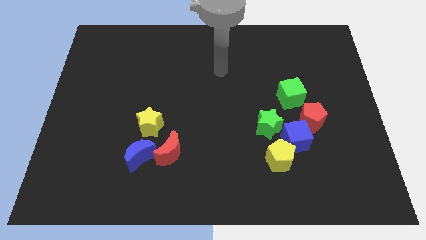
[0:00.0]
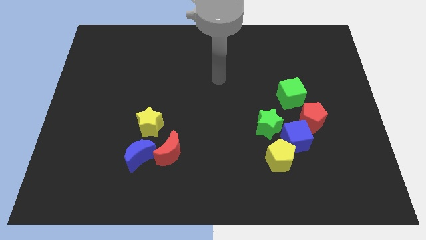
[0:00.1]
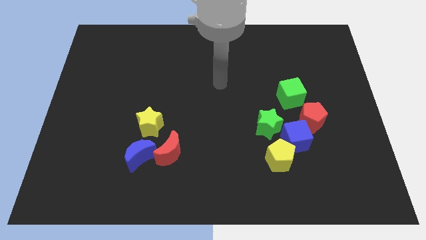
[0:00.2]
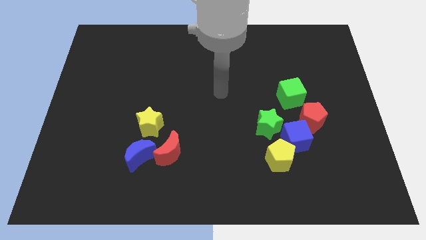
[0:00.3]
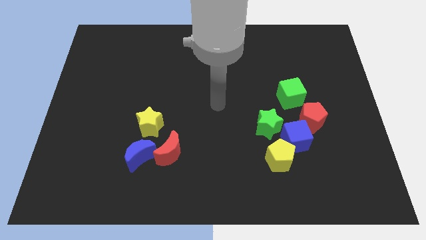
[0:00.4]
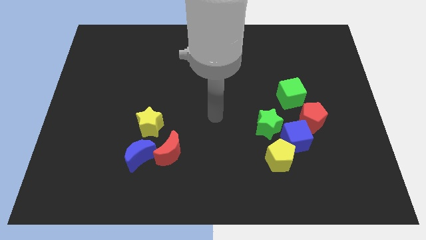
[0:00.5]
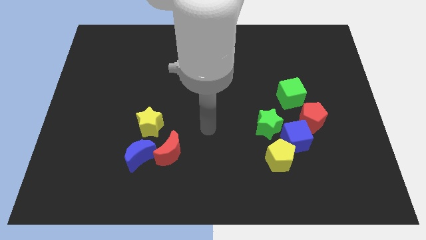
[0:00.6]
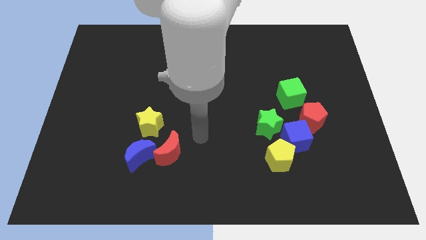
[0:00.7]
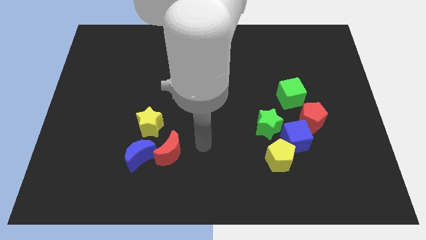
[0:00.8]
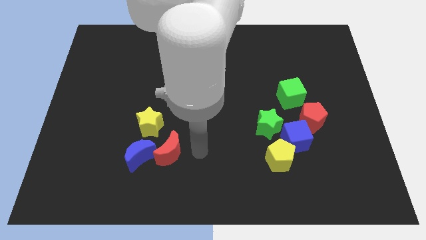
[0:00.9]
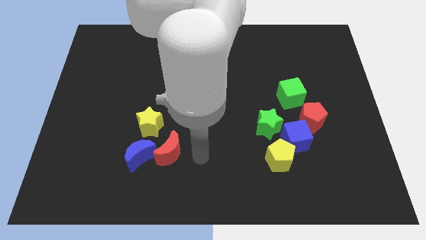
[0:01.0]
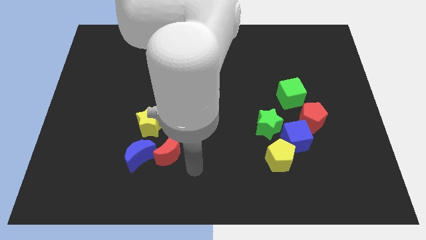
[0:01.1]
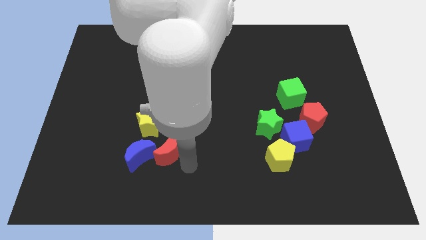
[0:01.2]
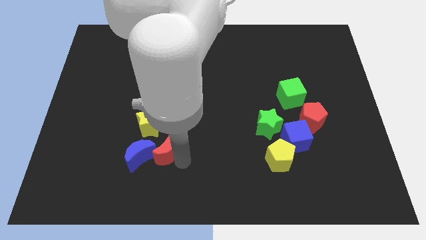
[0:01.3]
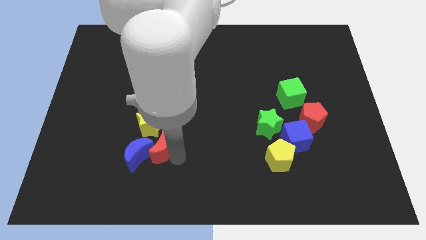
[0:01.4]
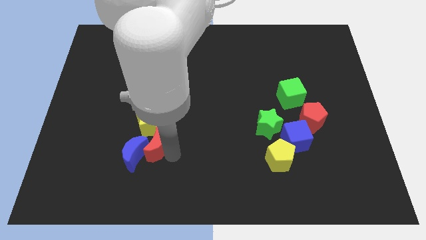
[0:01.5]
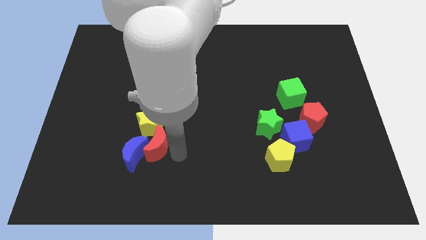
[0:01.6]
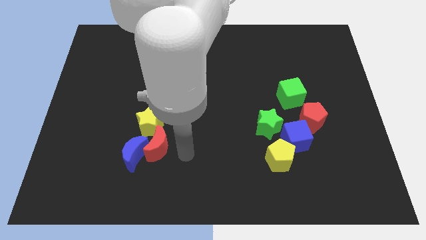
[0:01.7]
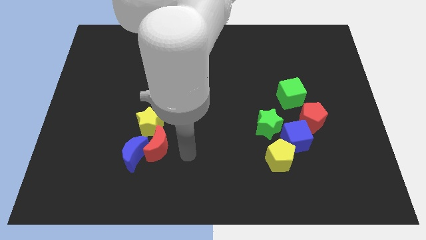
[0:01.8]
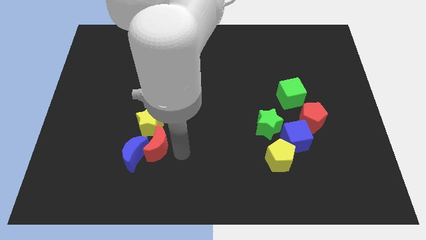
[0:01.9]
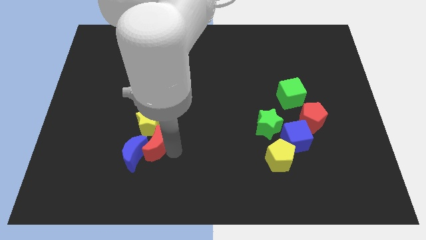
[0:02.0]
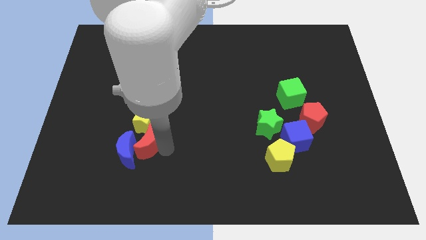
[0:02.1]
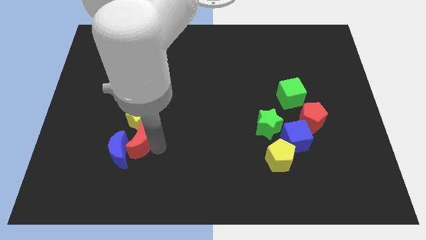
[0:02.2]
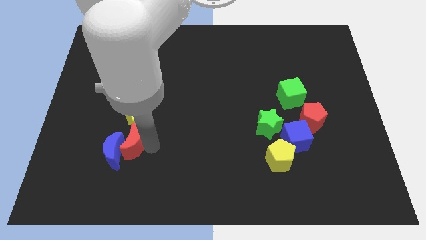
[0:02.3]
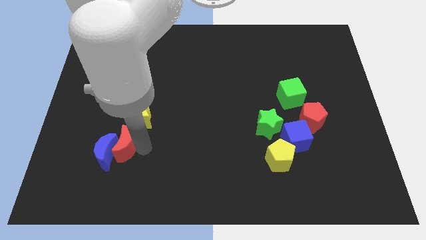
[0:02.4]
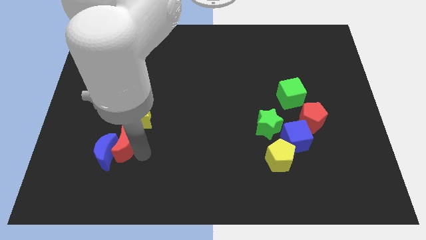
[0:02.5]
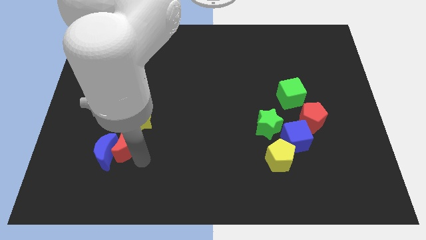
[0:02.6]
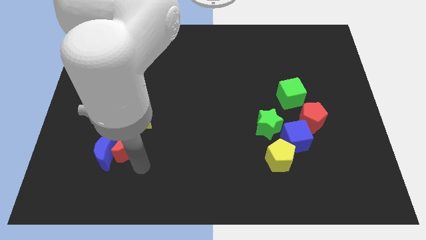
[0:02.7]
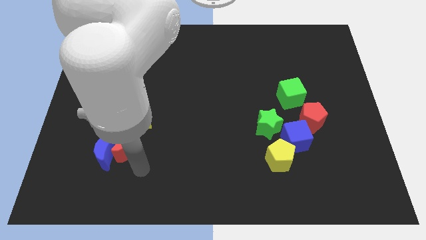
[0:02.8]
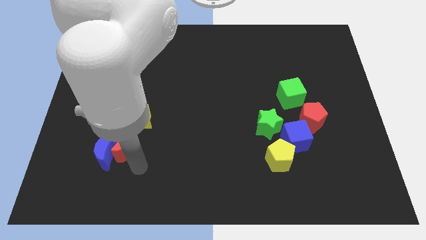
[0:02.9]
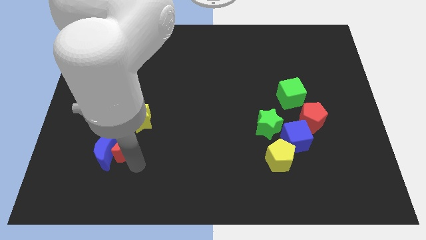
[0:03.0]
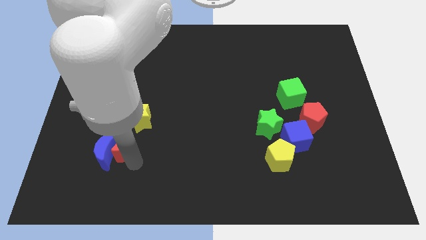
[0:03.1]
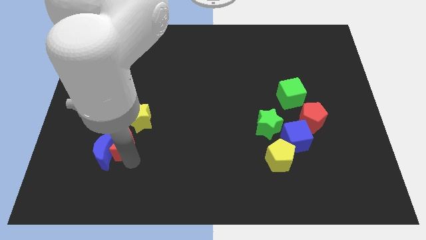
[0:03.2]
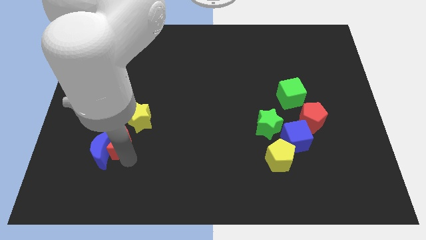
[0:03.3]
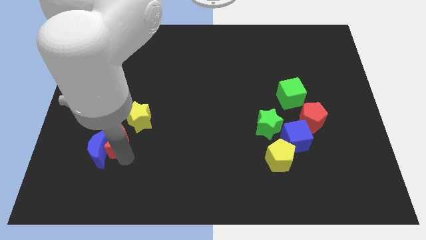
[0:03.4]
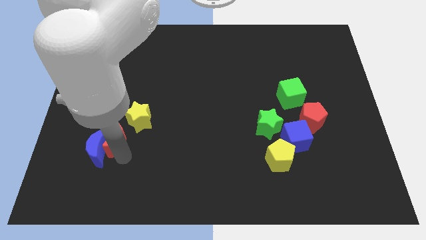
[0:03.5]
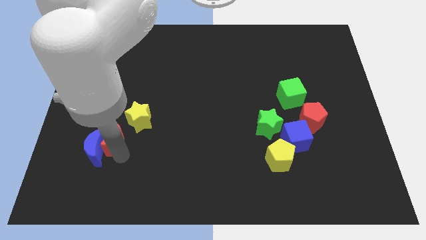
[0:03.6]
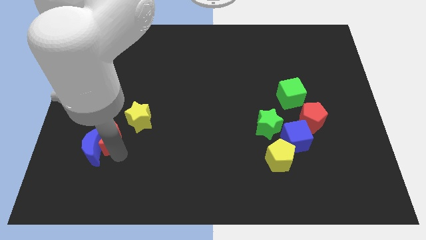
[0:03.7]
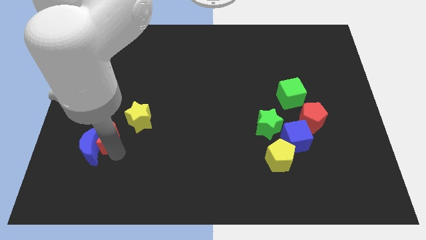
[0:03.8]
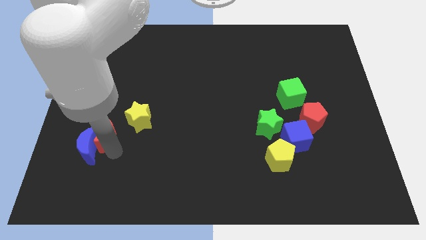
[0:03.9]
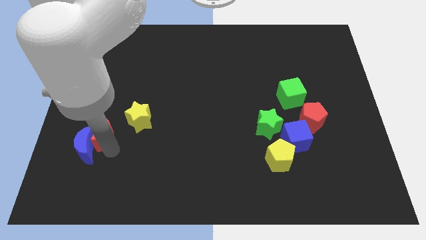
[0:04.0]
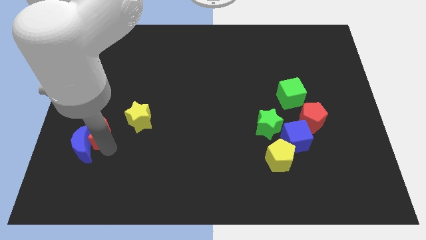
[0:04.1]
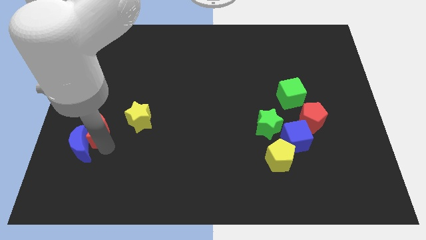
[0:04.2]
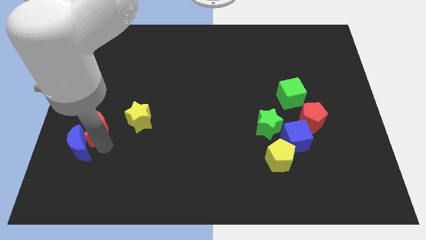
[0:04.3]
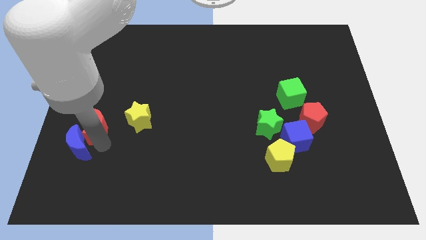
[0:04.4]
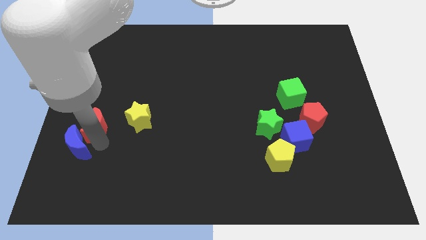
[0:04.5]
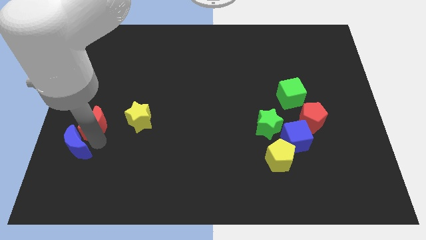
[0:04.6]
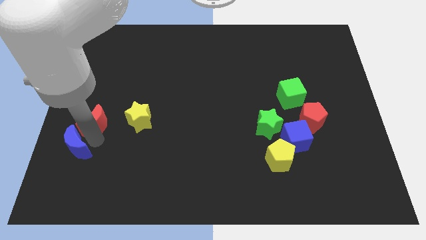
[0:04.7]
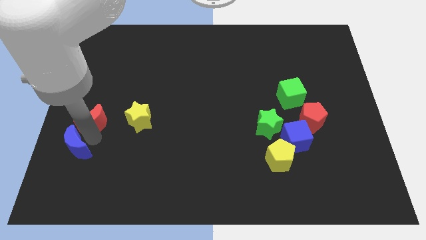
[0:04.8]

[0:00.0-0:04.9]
push the red moon to the left side of the board

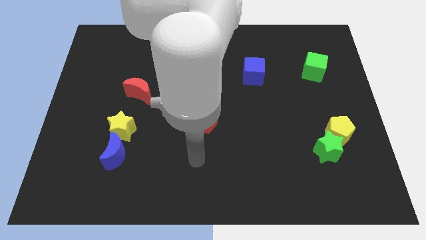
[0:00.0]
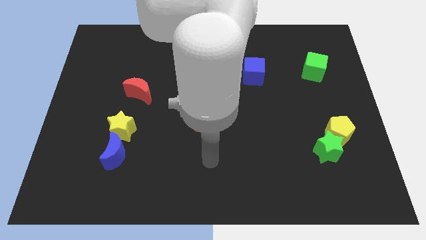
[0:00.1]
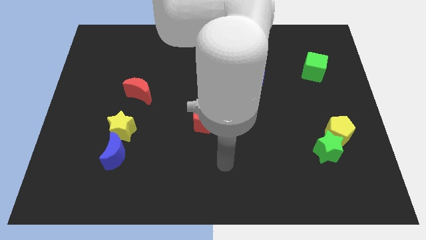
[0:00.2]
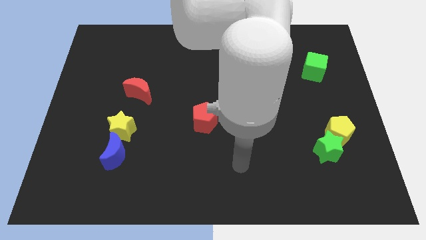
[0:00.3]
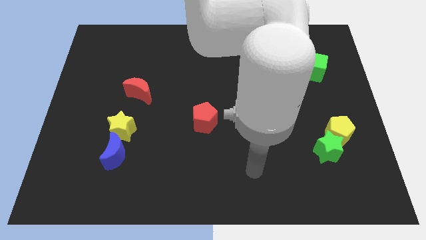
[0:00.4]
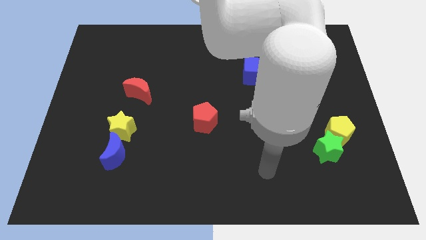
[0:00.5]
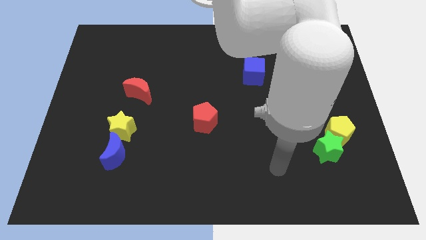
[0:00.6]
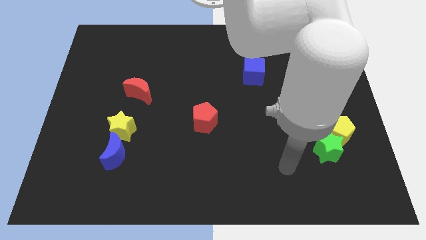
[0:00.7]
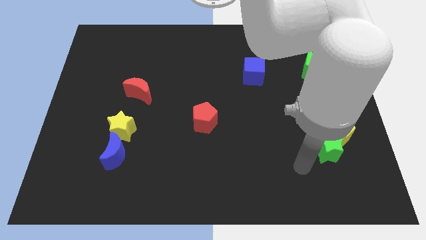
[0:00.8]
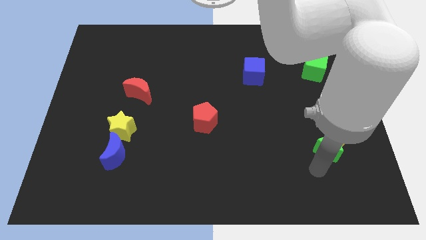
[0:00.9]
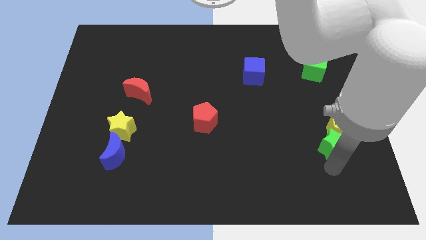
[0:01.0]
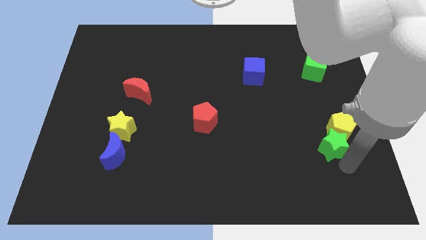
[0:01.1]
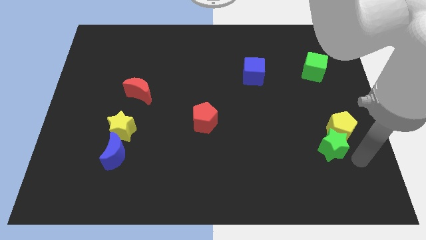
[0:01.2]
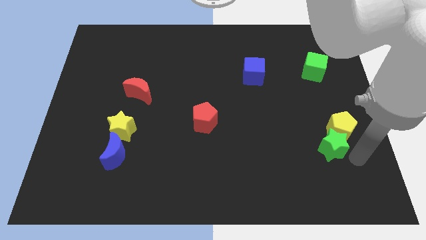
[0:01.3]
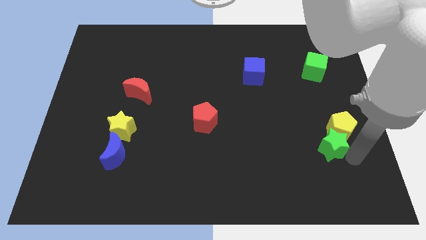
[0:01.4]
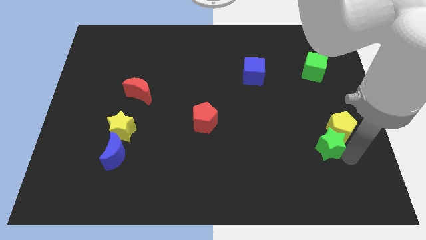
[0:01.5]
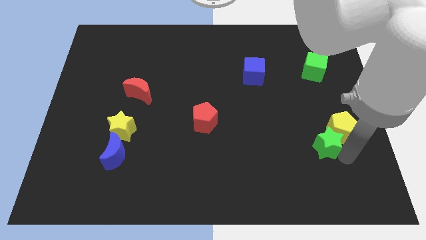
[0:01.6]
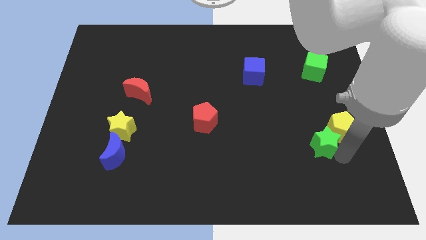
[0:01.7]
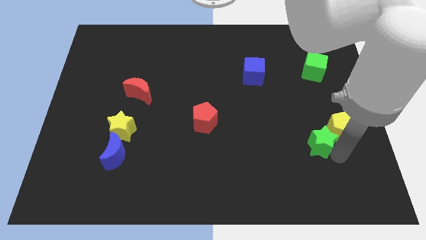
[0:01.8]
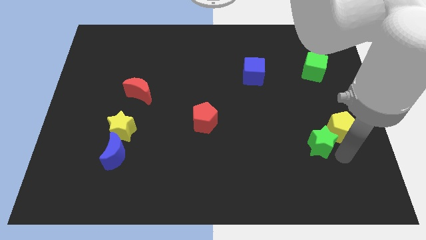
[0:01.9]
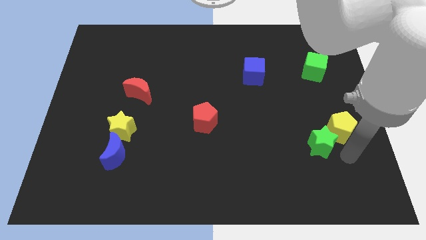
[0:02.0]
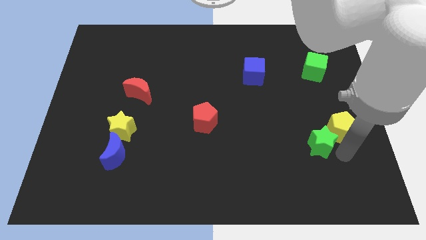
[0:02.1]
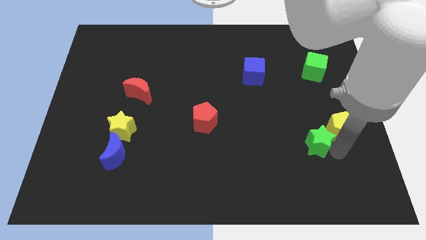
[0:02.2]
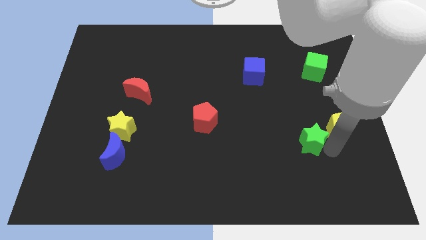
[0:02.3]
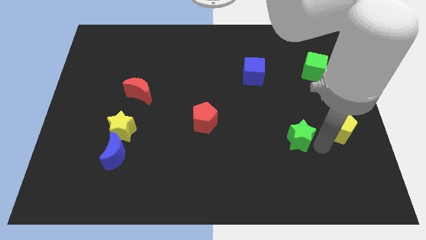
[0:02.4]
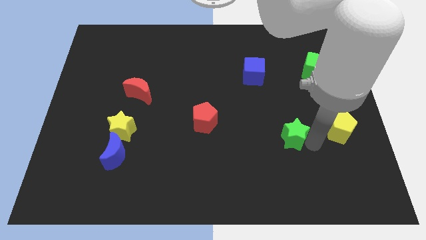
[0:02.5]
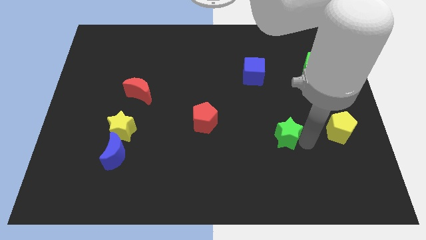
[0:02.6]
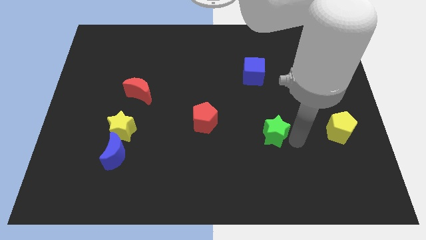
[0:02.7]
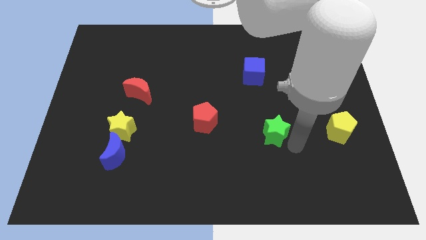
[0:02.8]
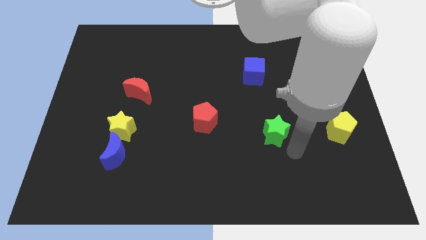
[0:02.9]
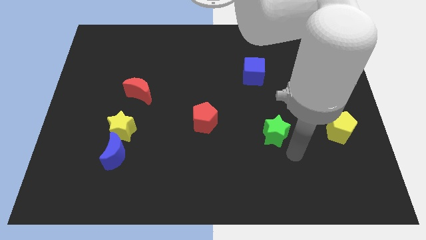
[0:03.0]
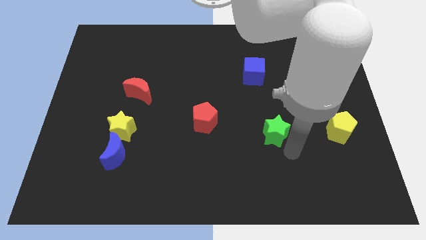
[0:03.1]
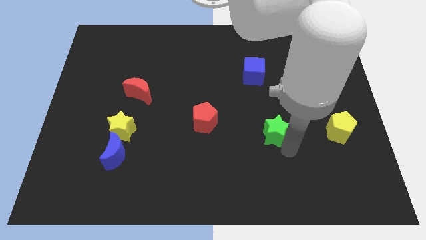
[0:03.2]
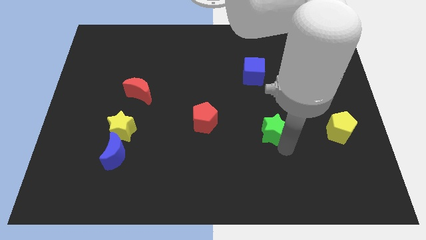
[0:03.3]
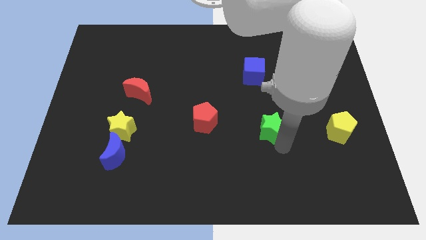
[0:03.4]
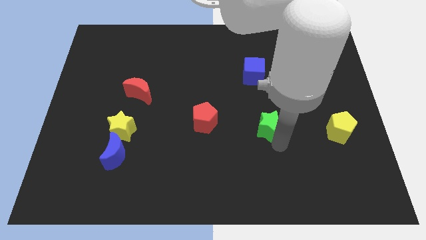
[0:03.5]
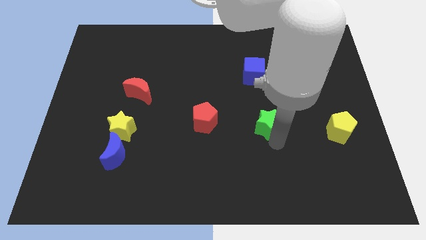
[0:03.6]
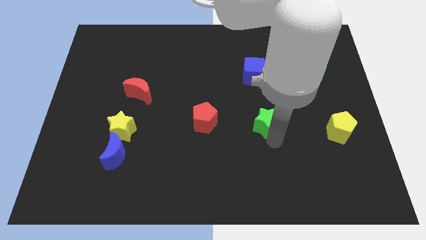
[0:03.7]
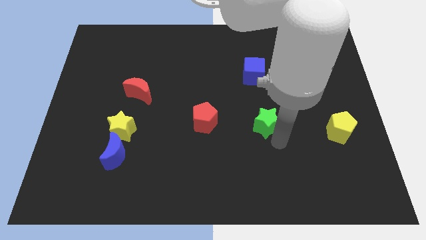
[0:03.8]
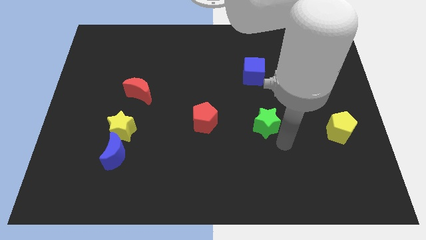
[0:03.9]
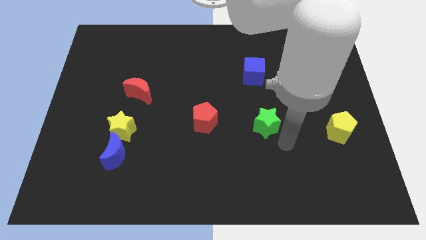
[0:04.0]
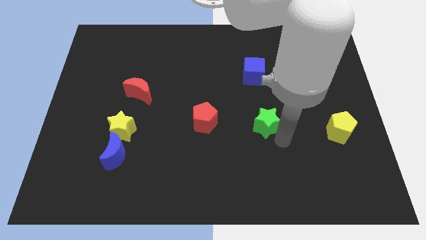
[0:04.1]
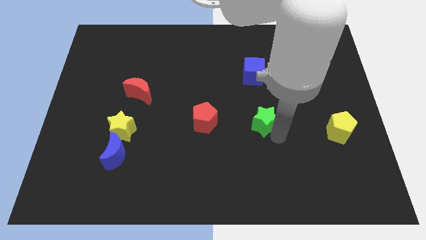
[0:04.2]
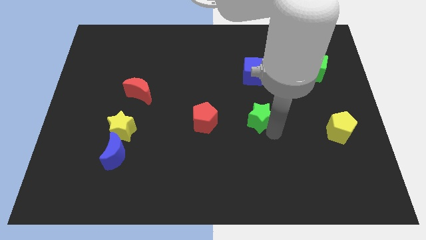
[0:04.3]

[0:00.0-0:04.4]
slide the green star to the center of the board
